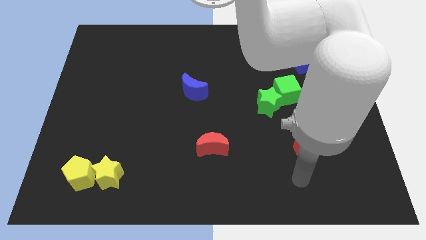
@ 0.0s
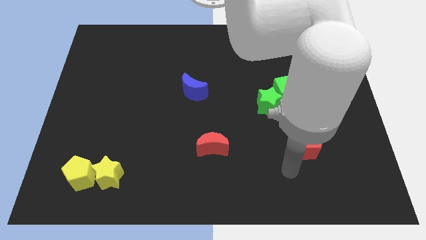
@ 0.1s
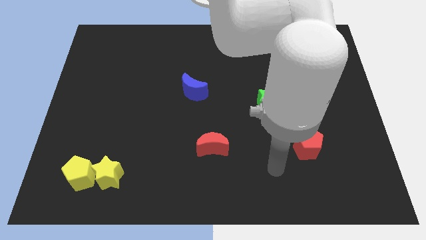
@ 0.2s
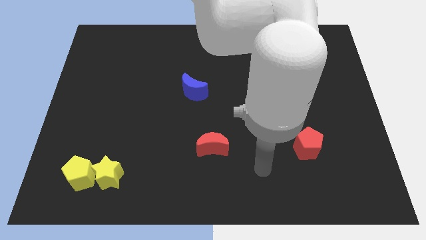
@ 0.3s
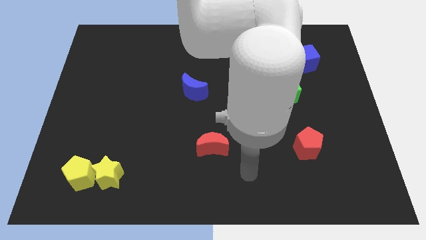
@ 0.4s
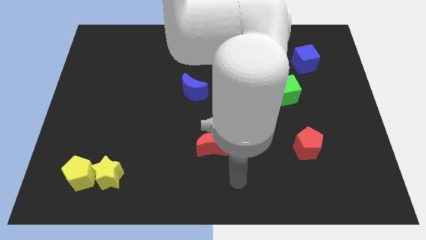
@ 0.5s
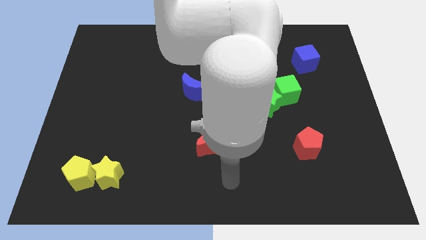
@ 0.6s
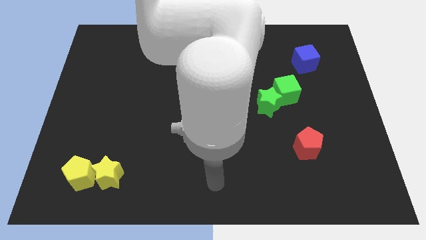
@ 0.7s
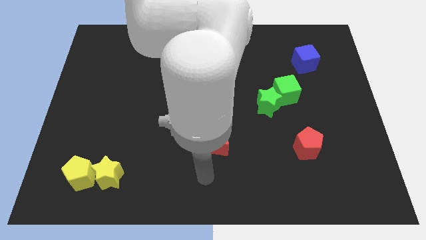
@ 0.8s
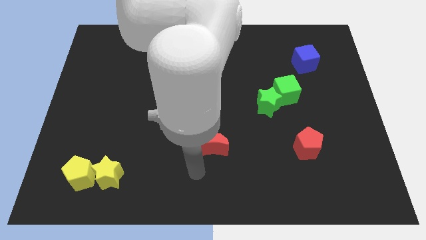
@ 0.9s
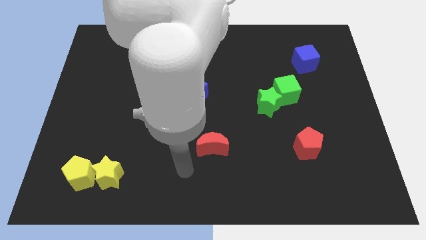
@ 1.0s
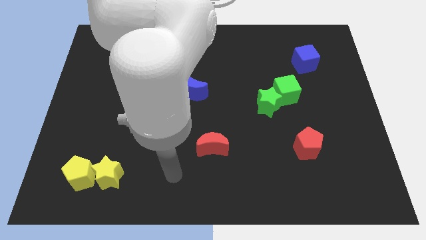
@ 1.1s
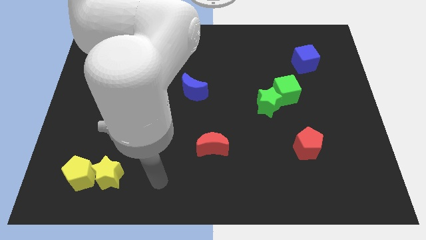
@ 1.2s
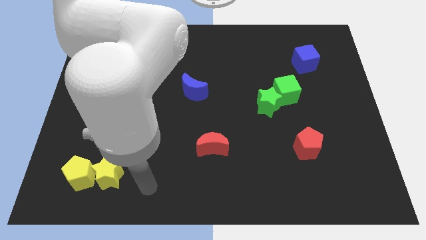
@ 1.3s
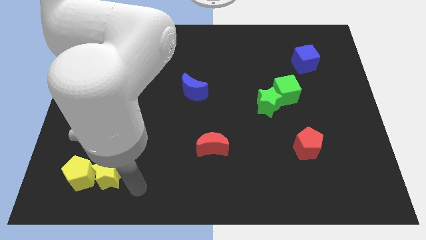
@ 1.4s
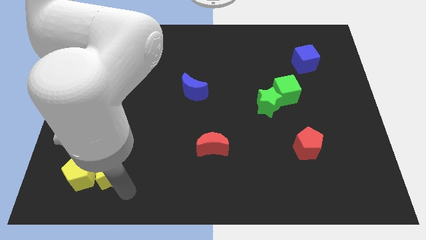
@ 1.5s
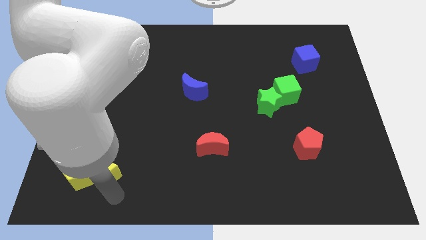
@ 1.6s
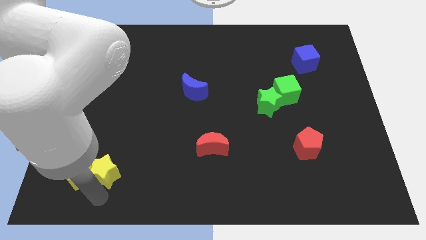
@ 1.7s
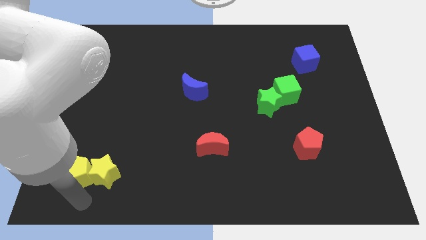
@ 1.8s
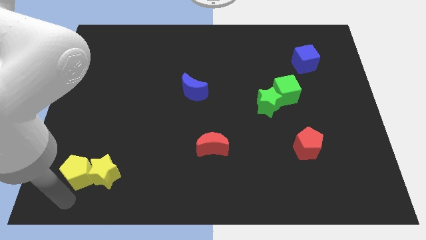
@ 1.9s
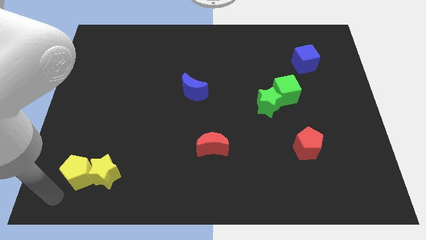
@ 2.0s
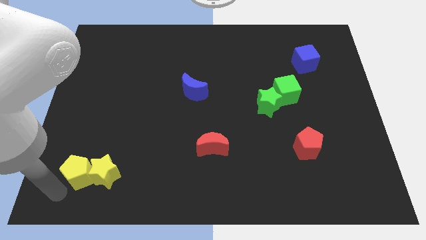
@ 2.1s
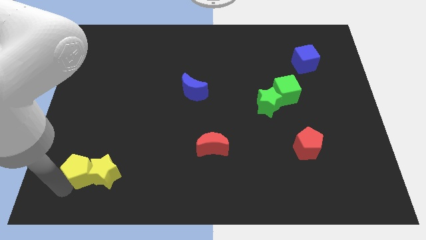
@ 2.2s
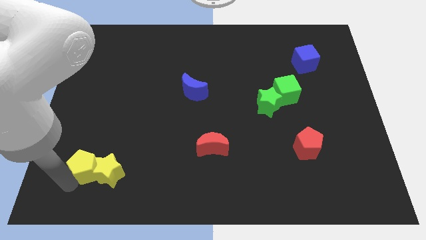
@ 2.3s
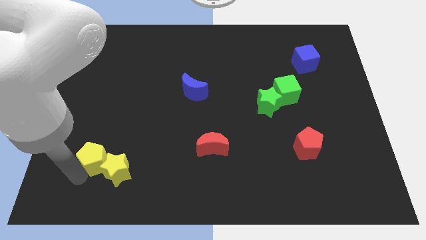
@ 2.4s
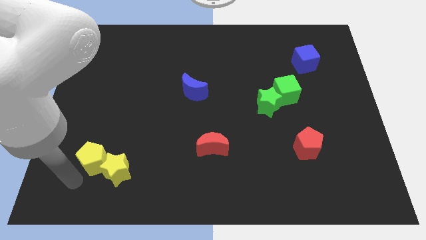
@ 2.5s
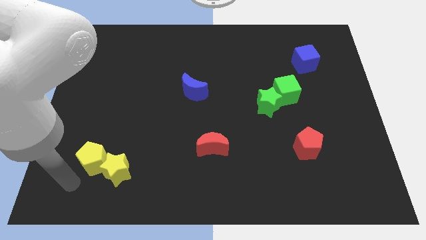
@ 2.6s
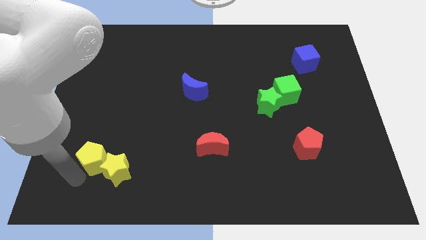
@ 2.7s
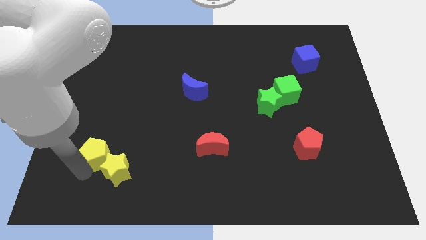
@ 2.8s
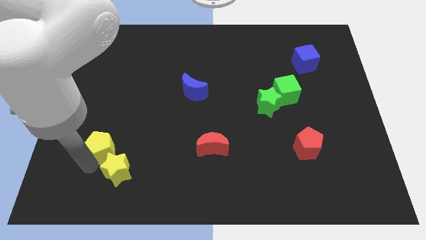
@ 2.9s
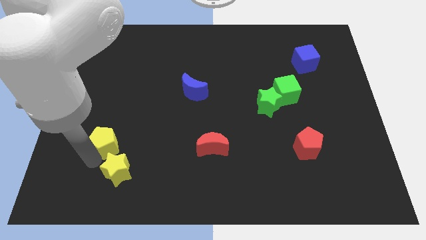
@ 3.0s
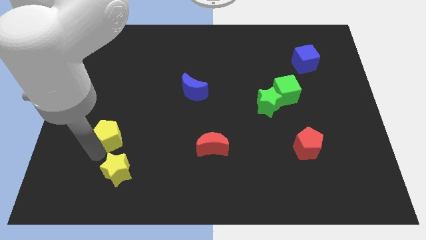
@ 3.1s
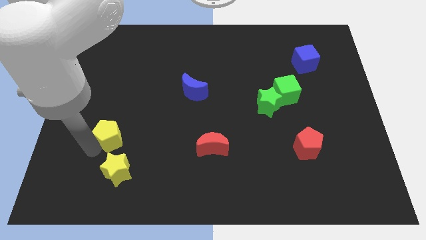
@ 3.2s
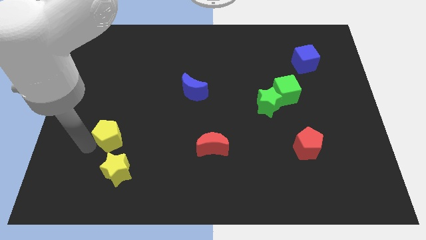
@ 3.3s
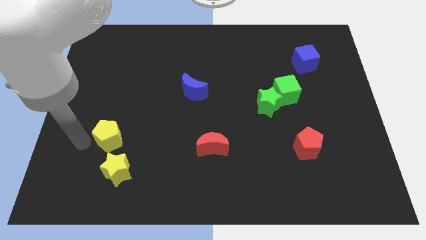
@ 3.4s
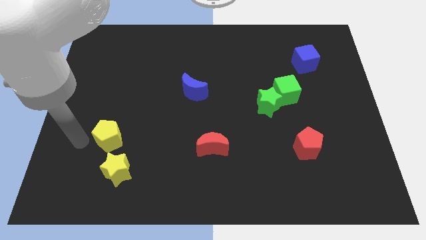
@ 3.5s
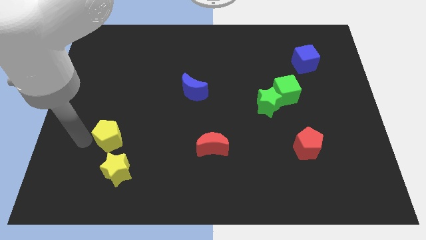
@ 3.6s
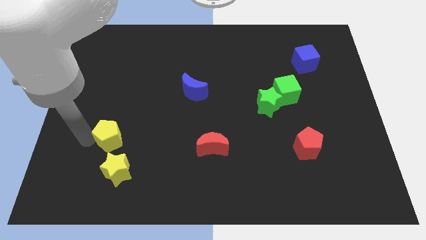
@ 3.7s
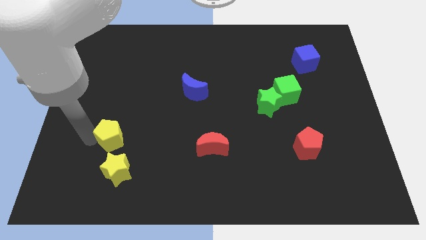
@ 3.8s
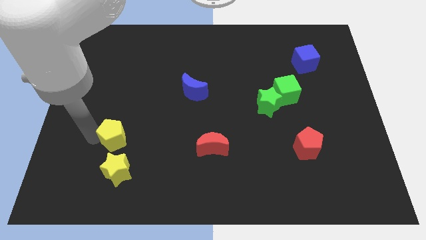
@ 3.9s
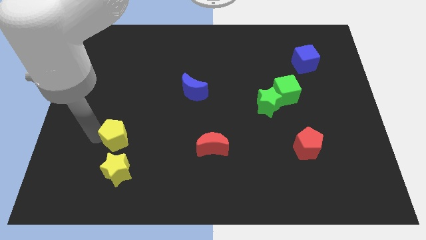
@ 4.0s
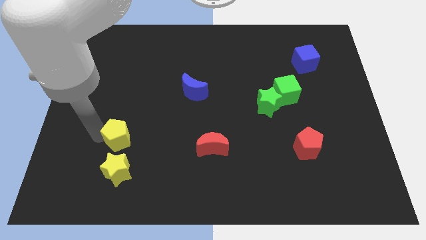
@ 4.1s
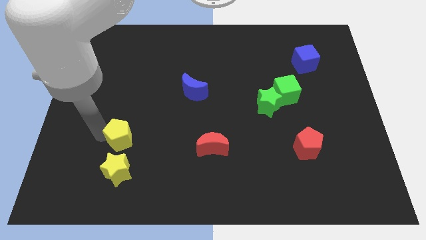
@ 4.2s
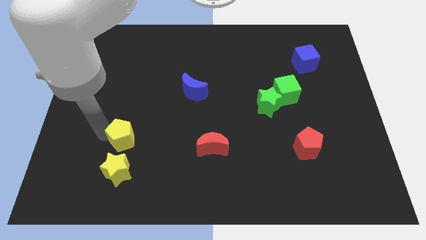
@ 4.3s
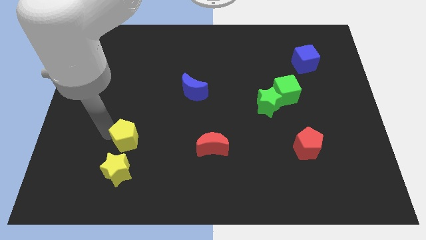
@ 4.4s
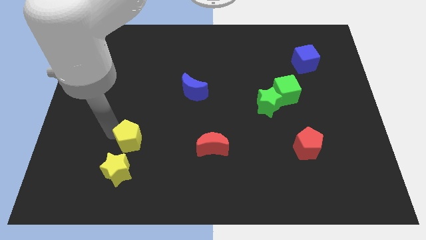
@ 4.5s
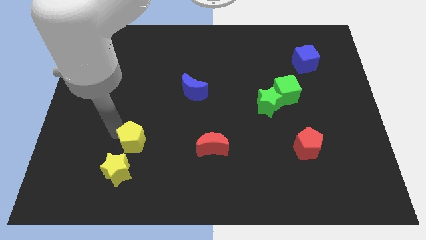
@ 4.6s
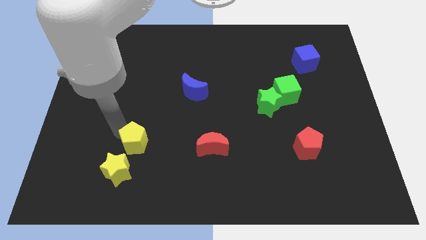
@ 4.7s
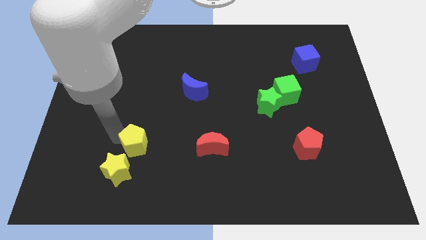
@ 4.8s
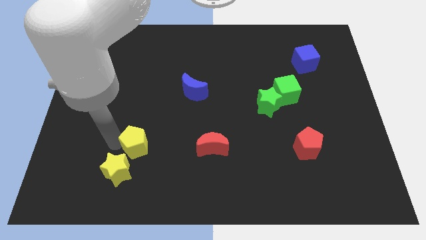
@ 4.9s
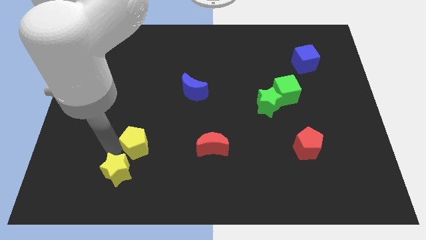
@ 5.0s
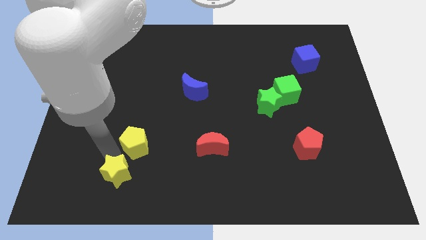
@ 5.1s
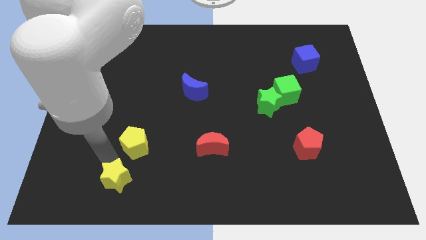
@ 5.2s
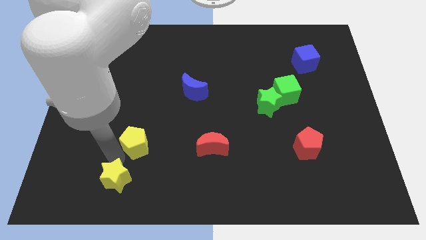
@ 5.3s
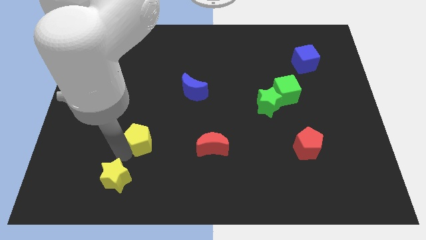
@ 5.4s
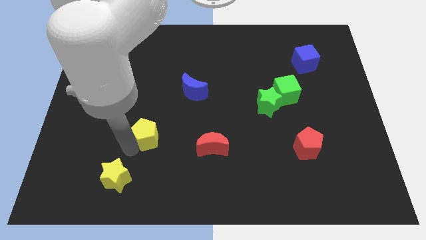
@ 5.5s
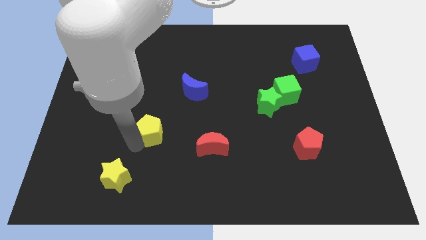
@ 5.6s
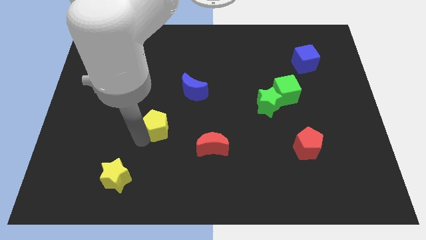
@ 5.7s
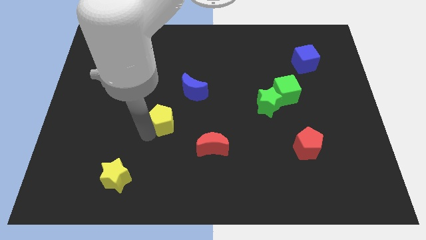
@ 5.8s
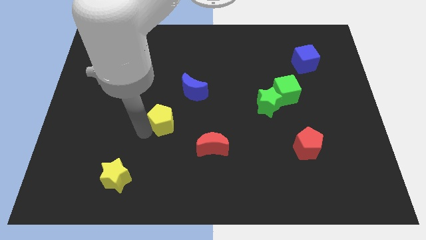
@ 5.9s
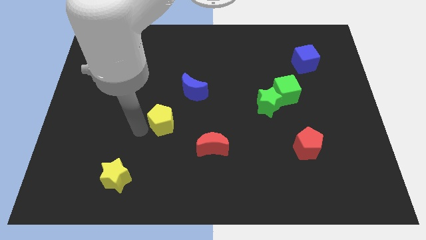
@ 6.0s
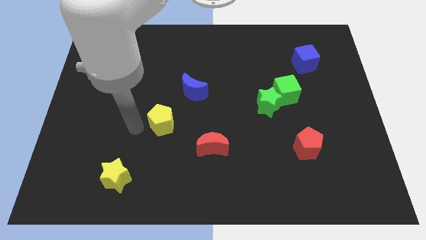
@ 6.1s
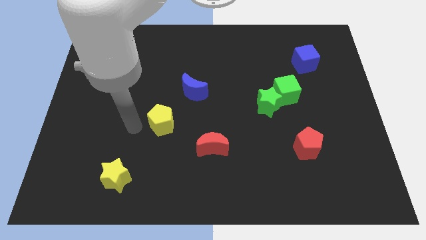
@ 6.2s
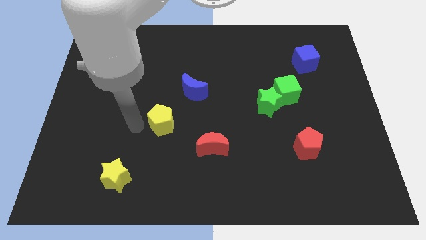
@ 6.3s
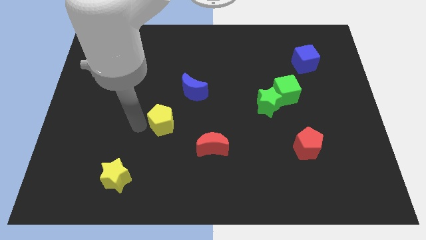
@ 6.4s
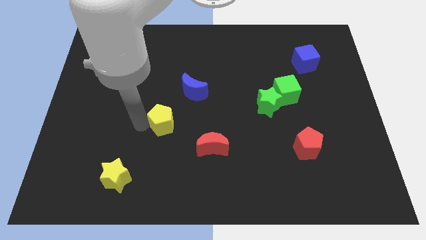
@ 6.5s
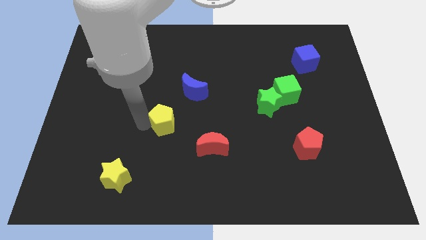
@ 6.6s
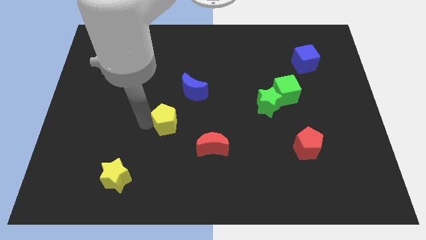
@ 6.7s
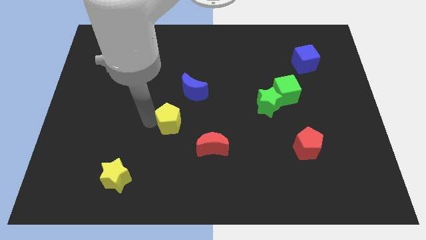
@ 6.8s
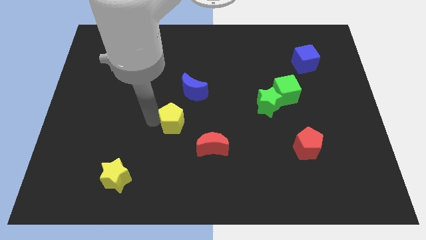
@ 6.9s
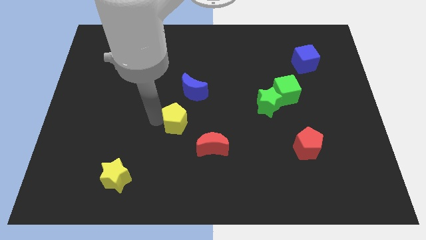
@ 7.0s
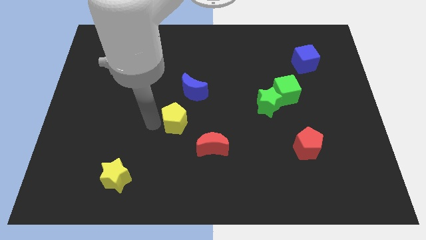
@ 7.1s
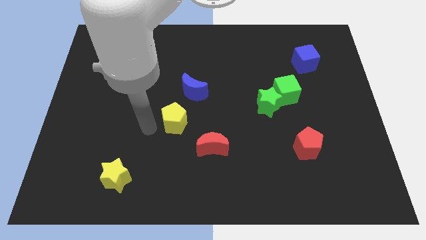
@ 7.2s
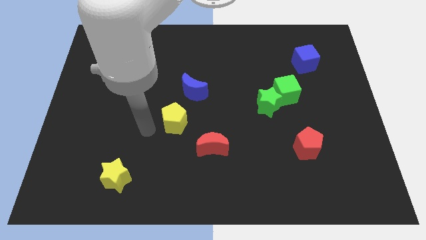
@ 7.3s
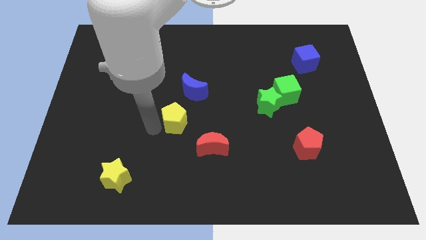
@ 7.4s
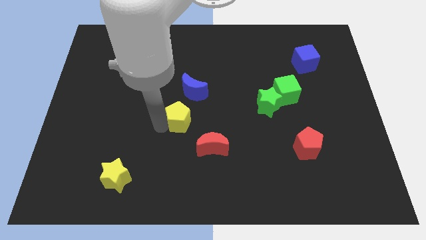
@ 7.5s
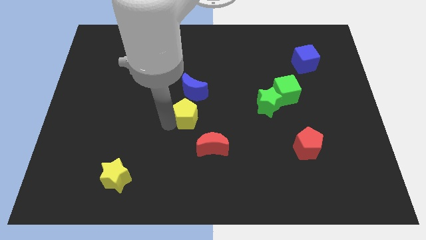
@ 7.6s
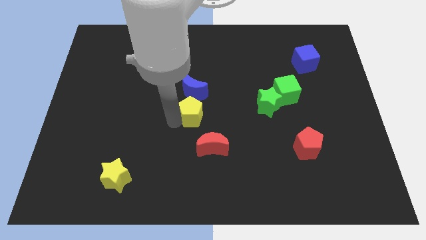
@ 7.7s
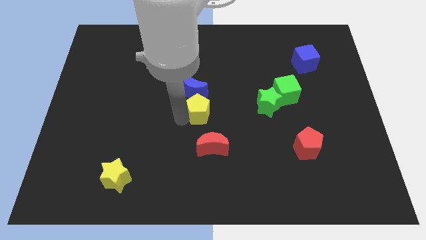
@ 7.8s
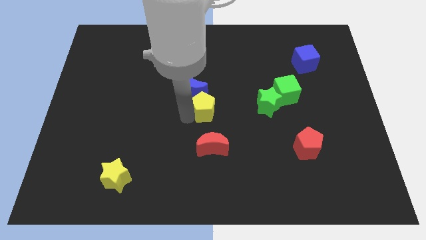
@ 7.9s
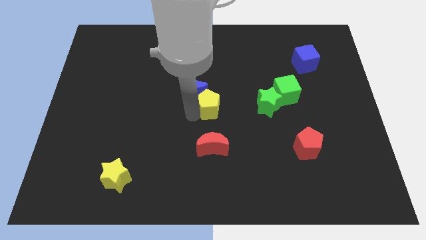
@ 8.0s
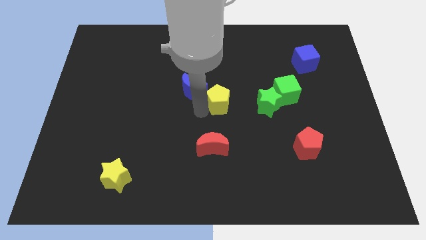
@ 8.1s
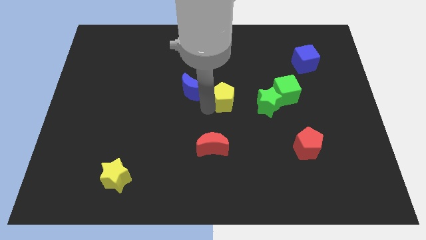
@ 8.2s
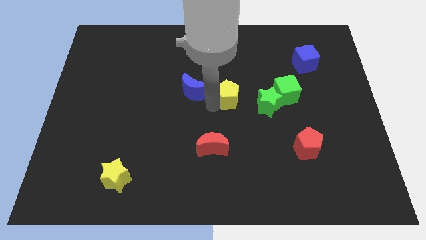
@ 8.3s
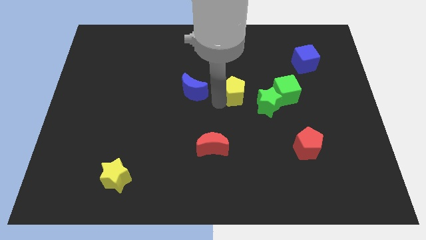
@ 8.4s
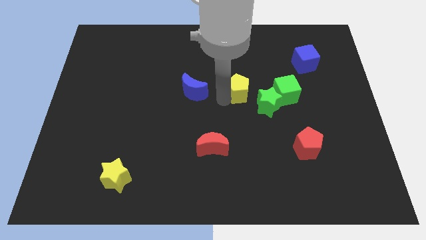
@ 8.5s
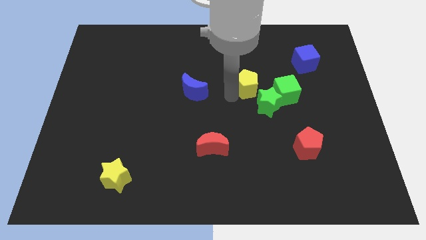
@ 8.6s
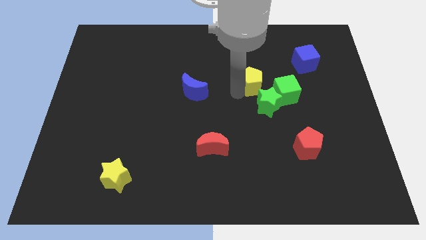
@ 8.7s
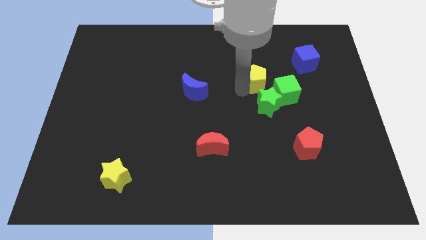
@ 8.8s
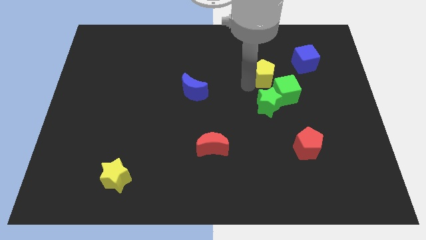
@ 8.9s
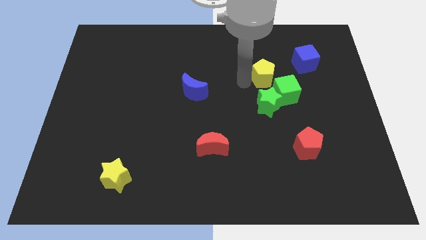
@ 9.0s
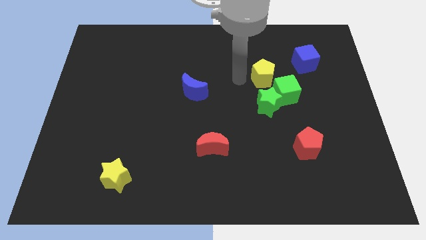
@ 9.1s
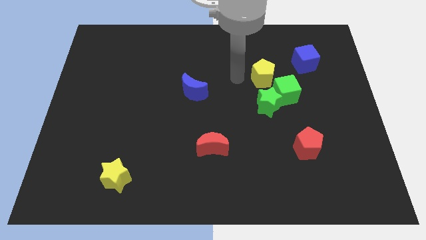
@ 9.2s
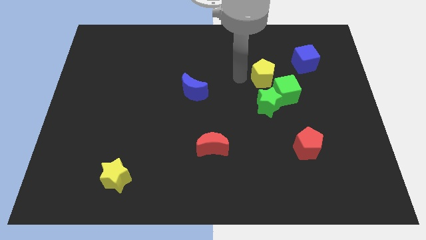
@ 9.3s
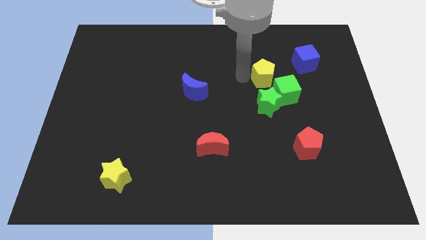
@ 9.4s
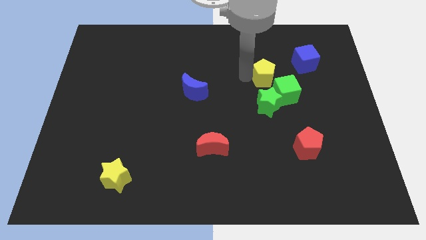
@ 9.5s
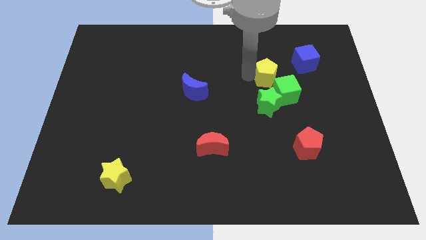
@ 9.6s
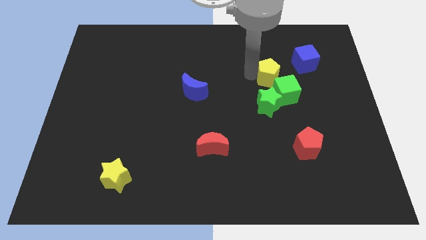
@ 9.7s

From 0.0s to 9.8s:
move the yellow pentagon diagonally down and to the left of the blue cube
